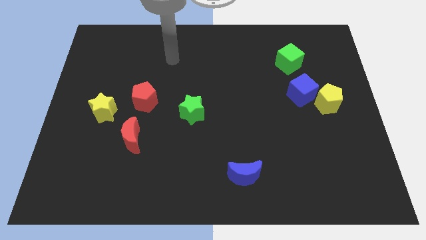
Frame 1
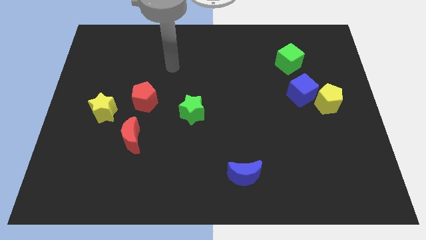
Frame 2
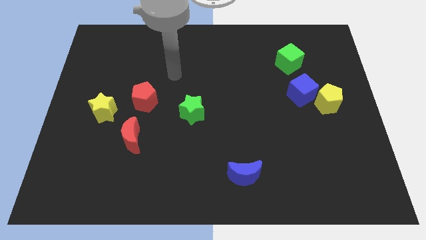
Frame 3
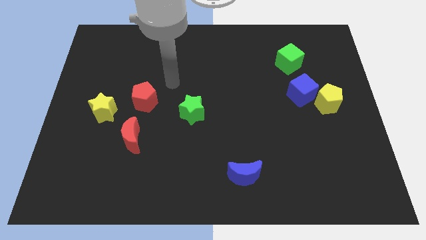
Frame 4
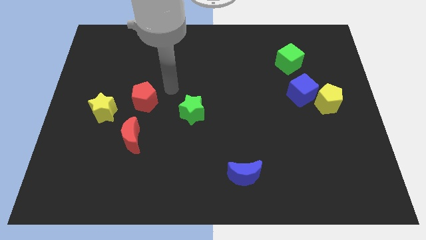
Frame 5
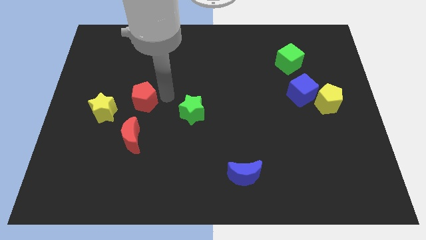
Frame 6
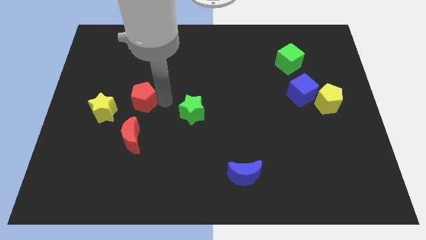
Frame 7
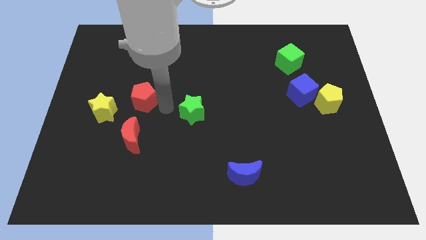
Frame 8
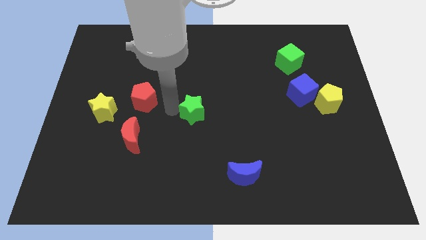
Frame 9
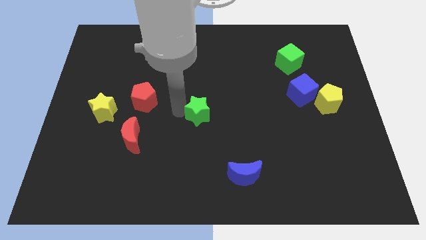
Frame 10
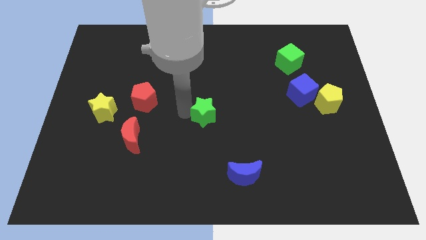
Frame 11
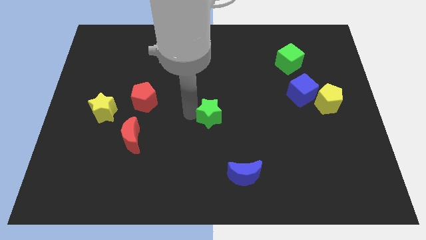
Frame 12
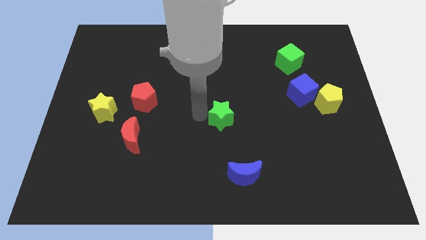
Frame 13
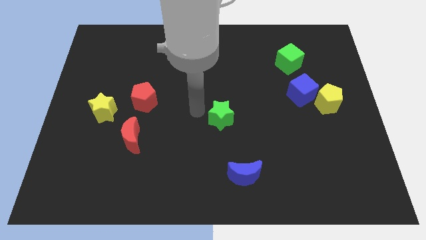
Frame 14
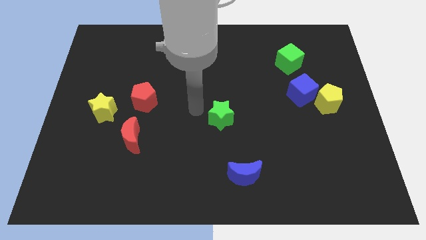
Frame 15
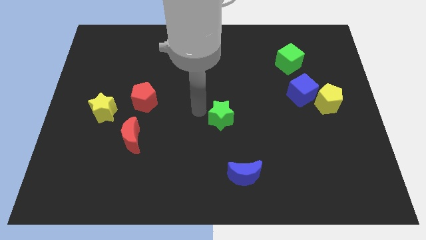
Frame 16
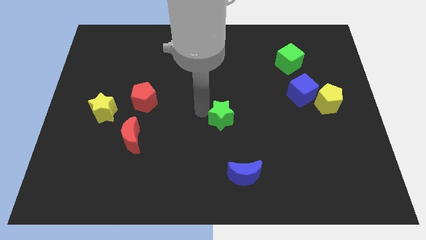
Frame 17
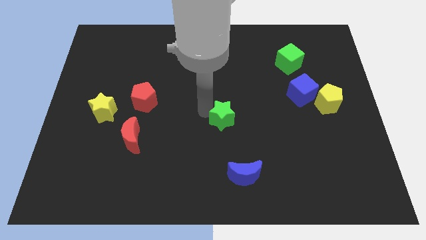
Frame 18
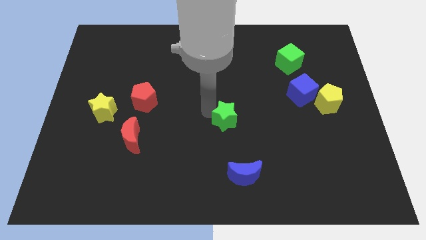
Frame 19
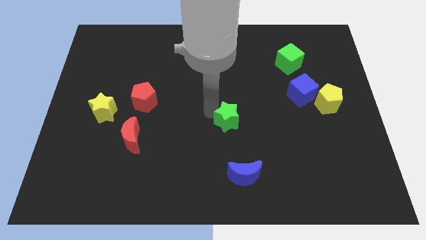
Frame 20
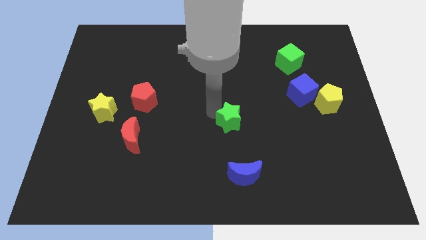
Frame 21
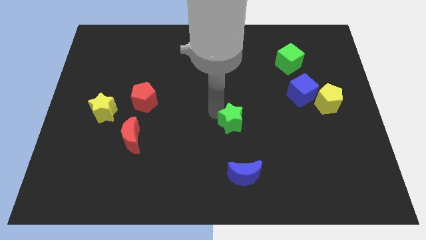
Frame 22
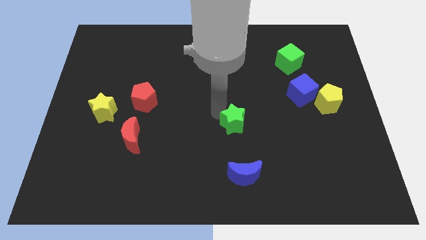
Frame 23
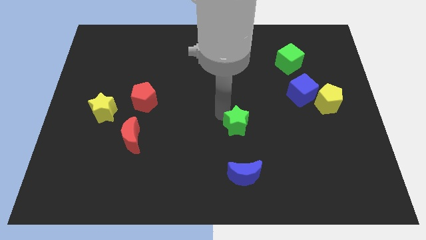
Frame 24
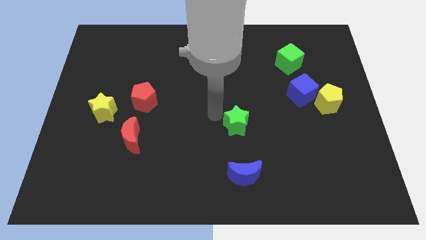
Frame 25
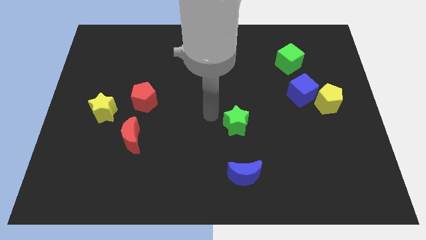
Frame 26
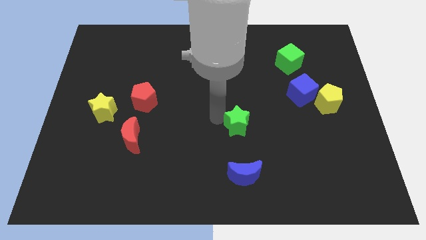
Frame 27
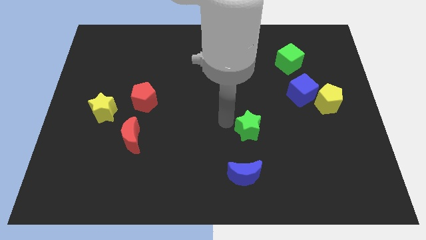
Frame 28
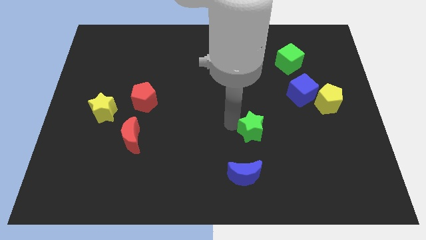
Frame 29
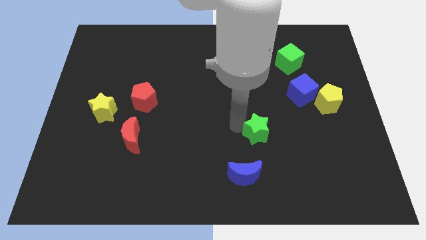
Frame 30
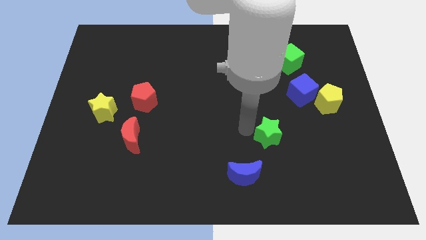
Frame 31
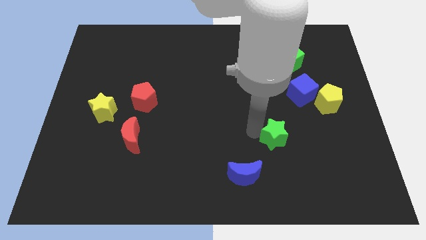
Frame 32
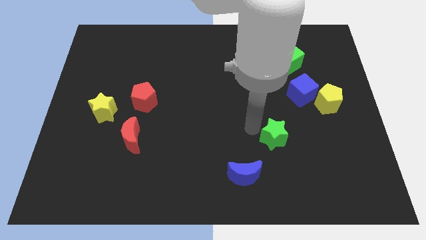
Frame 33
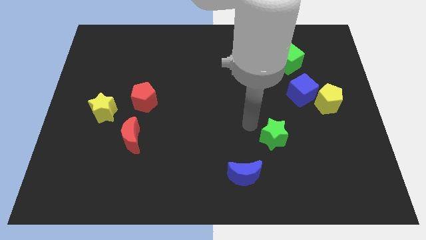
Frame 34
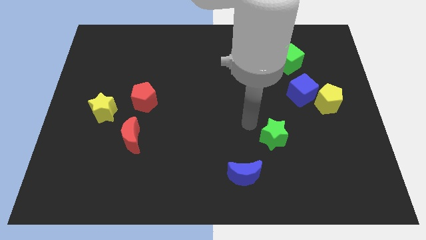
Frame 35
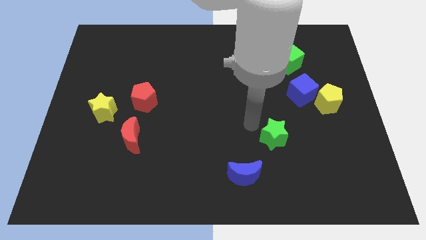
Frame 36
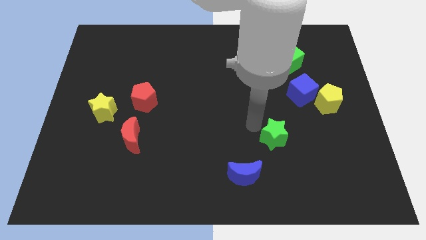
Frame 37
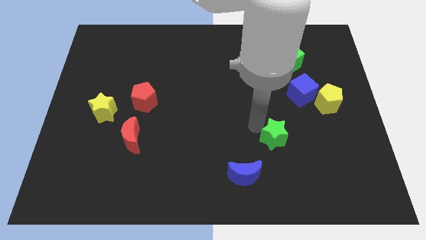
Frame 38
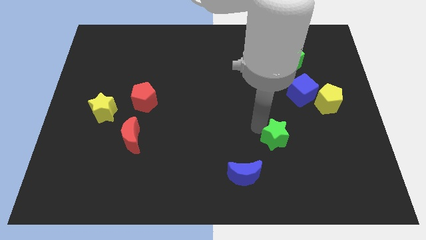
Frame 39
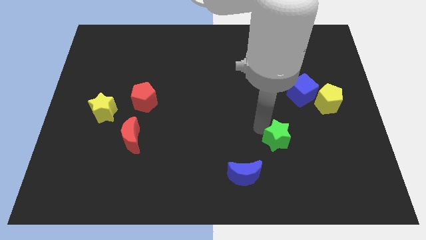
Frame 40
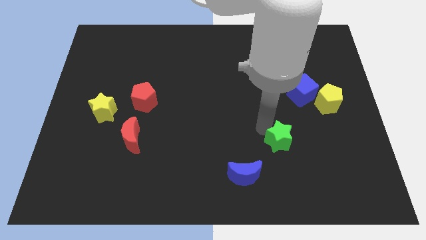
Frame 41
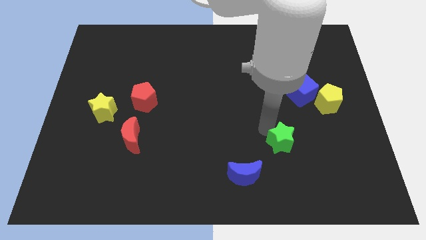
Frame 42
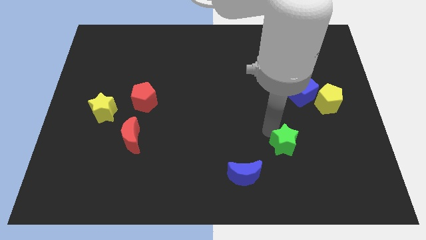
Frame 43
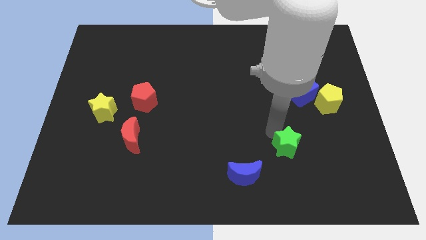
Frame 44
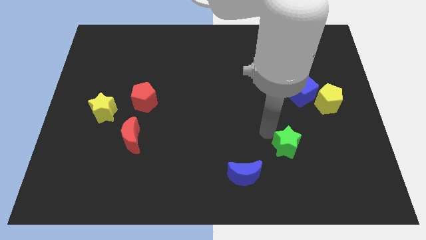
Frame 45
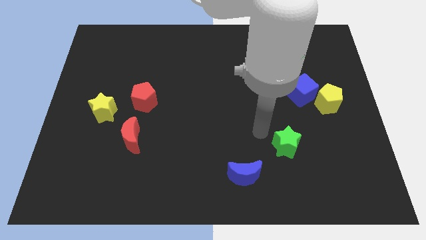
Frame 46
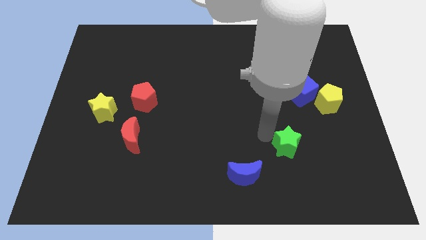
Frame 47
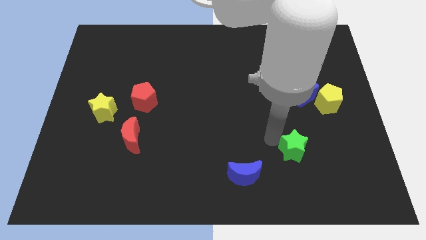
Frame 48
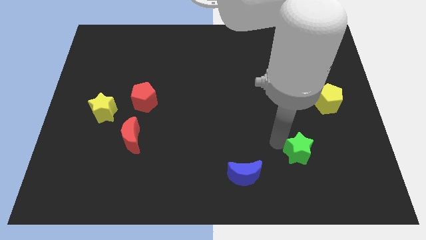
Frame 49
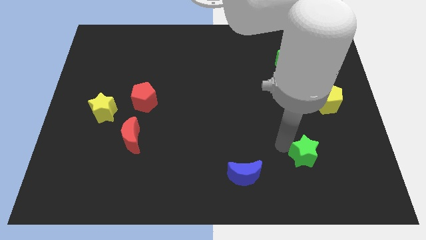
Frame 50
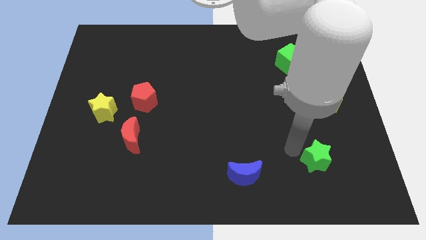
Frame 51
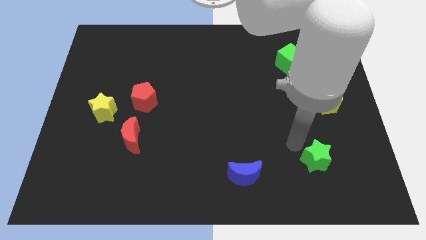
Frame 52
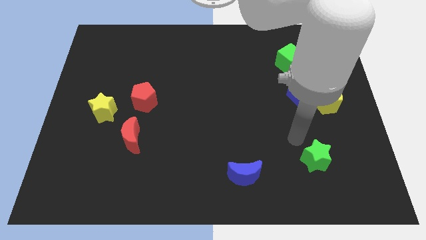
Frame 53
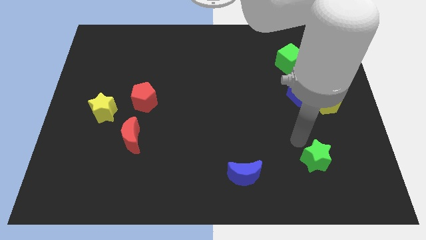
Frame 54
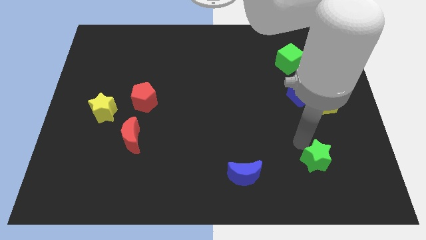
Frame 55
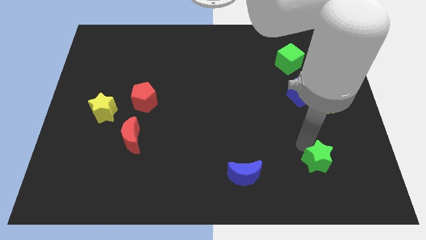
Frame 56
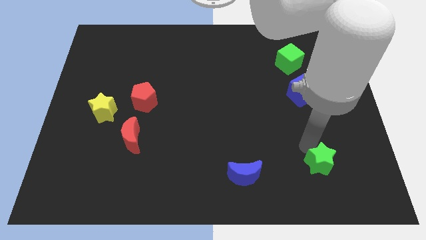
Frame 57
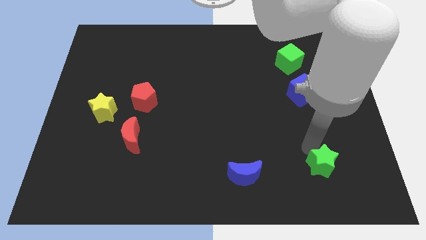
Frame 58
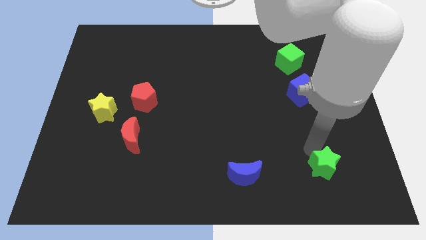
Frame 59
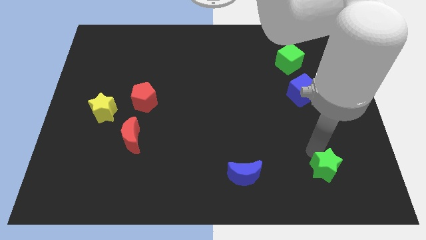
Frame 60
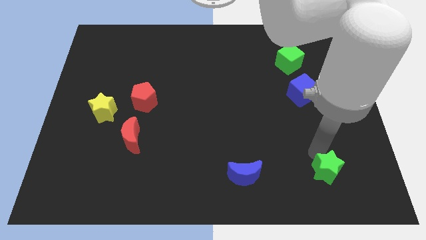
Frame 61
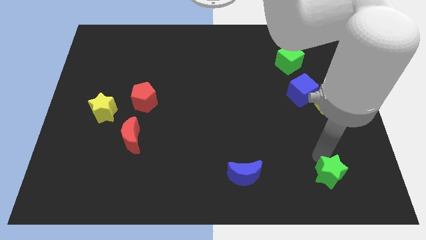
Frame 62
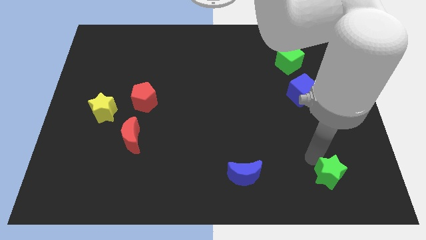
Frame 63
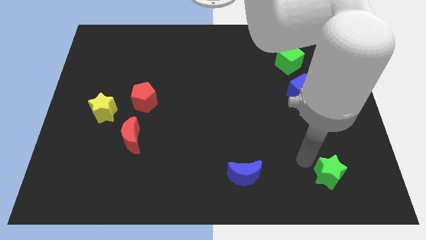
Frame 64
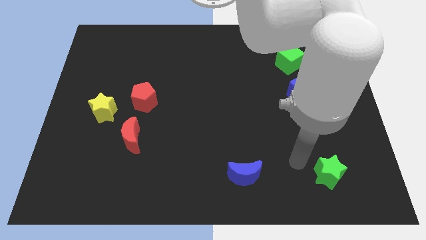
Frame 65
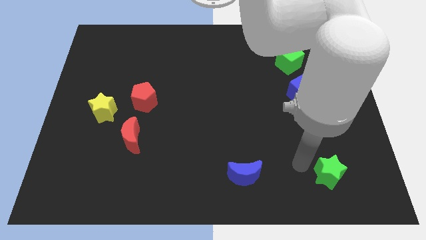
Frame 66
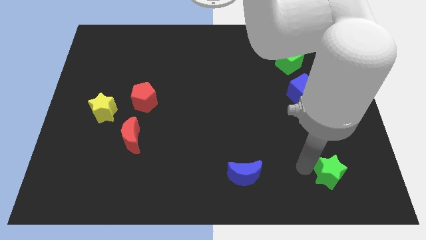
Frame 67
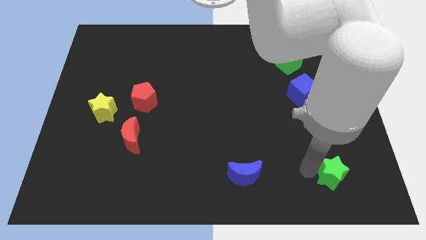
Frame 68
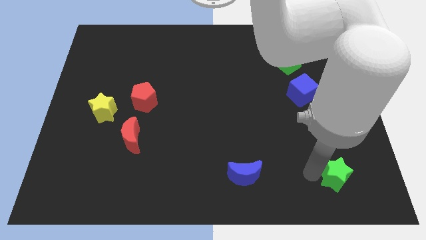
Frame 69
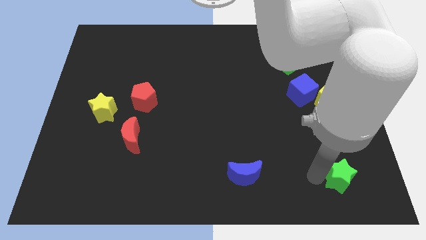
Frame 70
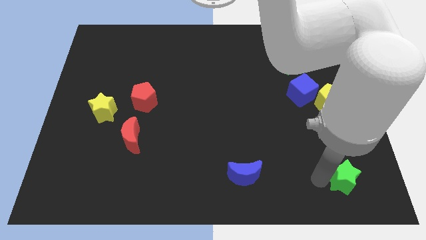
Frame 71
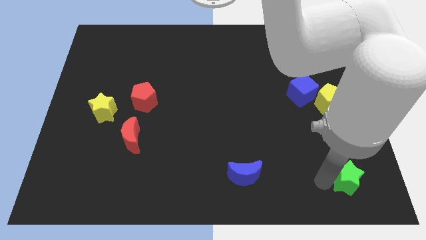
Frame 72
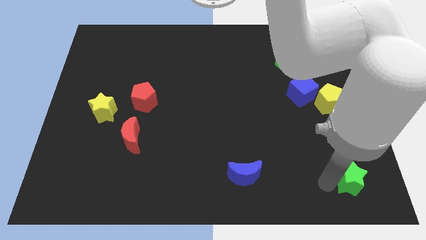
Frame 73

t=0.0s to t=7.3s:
put the green star to the bottom right
